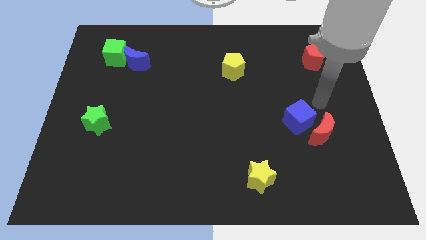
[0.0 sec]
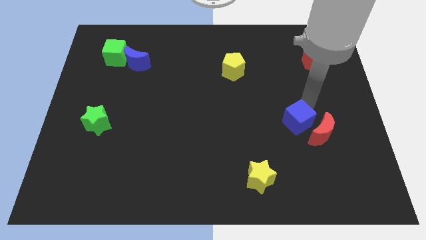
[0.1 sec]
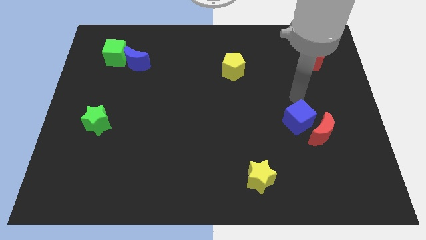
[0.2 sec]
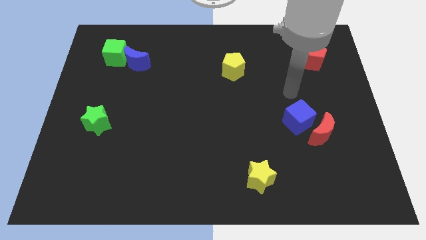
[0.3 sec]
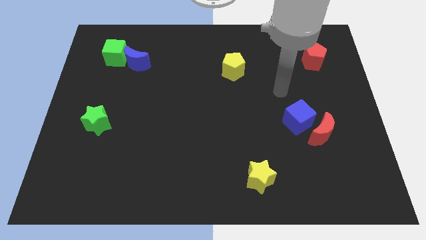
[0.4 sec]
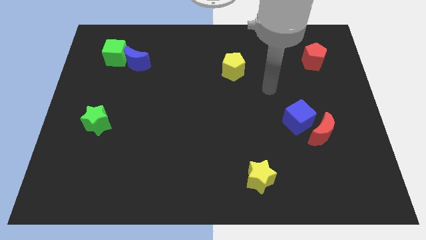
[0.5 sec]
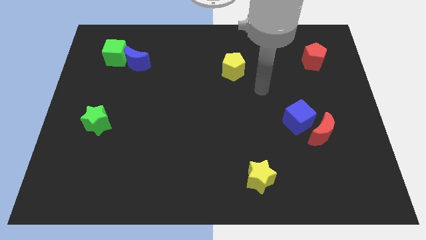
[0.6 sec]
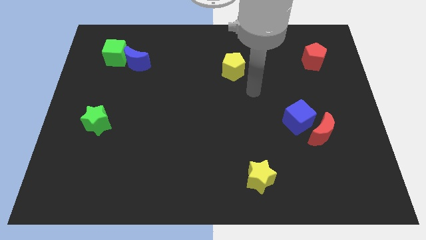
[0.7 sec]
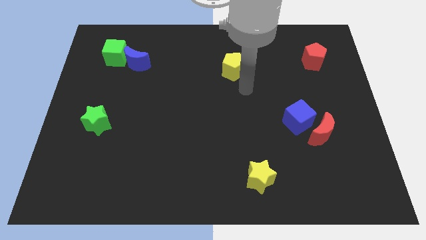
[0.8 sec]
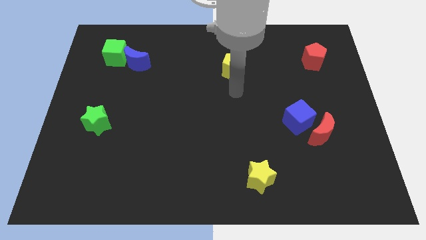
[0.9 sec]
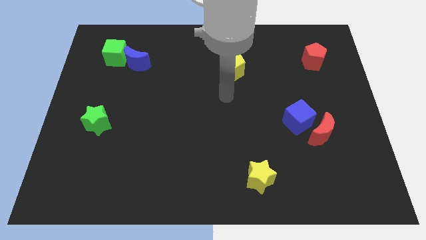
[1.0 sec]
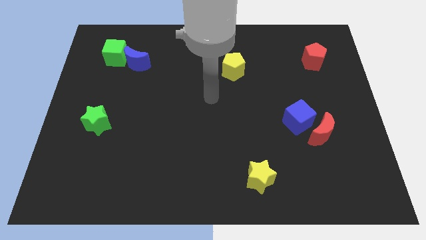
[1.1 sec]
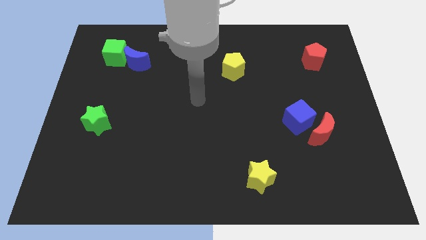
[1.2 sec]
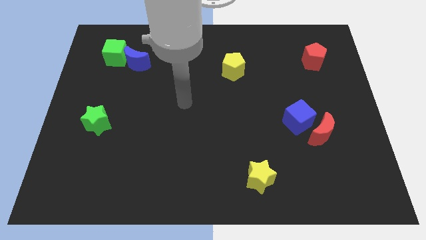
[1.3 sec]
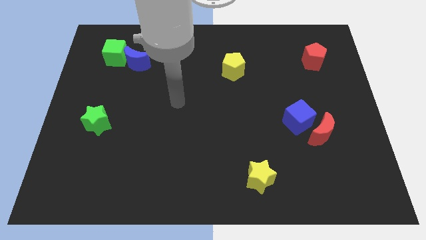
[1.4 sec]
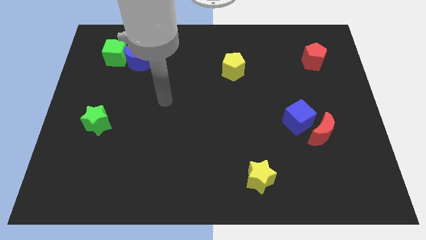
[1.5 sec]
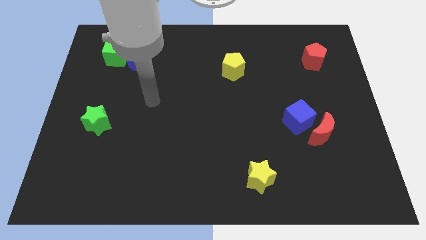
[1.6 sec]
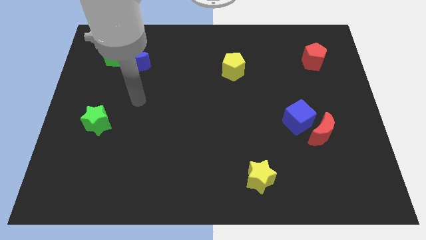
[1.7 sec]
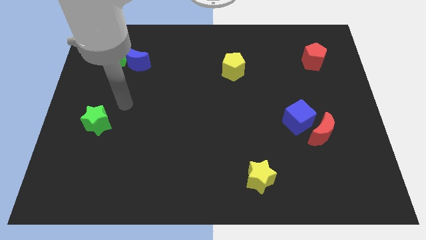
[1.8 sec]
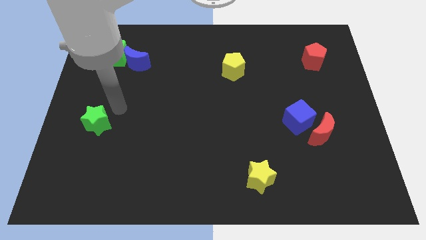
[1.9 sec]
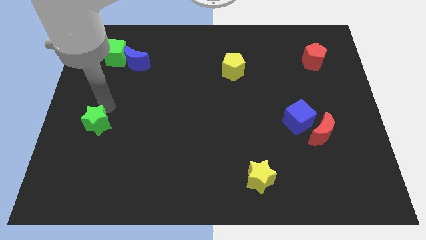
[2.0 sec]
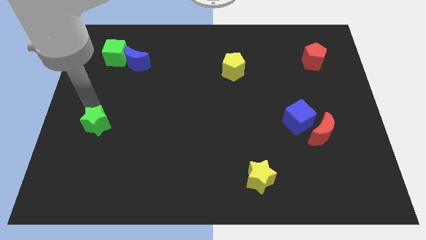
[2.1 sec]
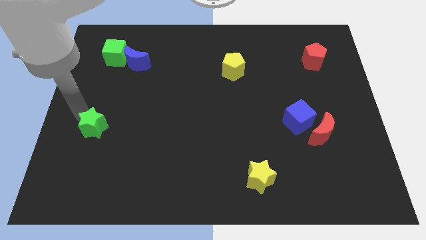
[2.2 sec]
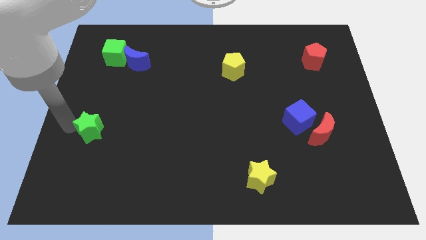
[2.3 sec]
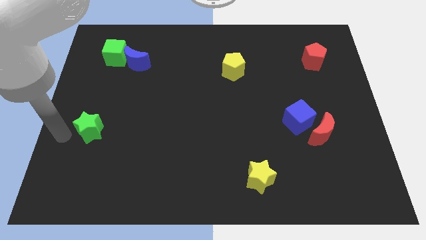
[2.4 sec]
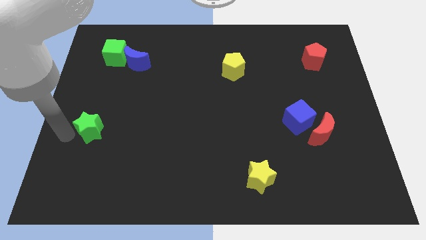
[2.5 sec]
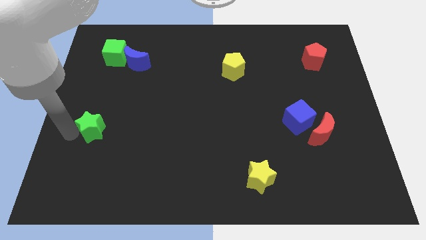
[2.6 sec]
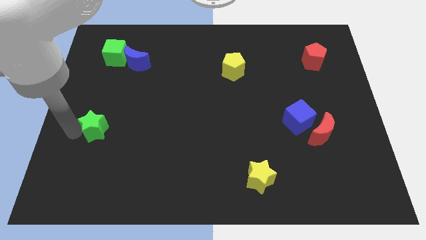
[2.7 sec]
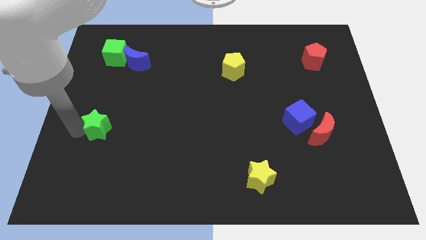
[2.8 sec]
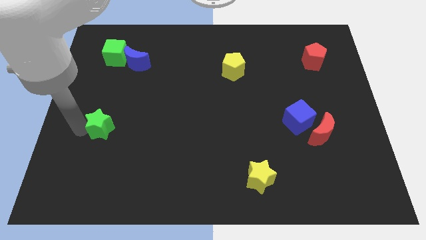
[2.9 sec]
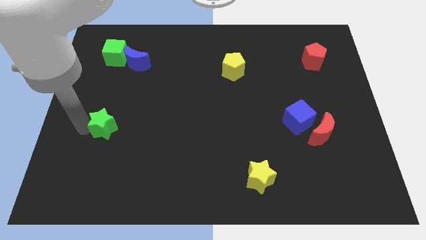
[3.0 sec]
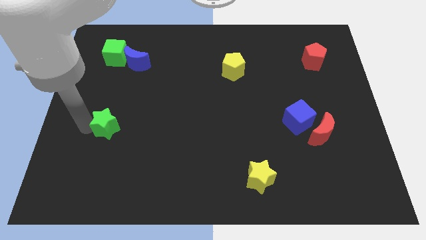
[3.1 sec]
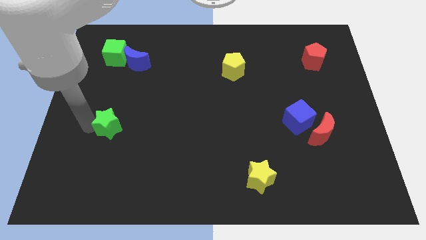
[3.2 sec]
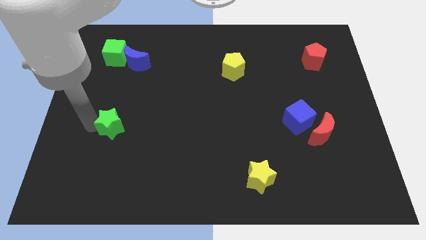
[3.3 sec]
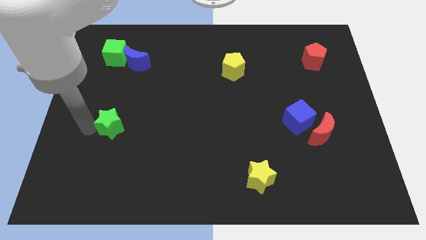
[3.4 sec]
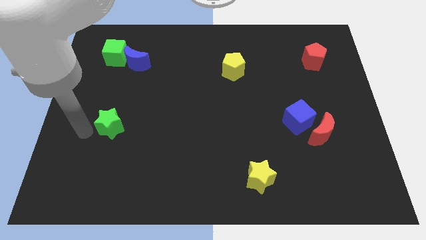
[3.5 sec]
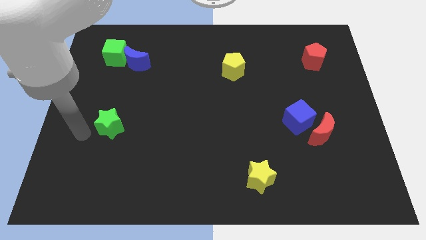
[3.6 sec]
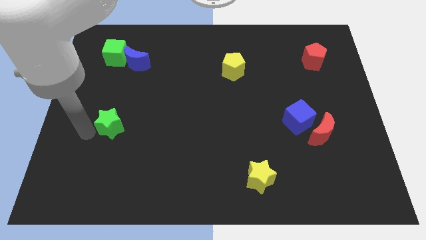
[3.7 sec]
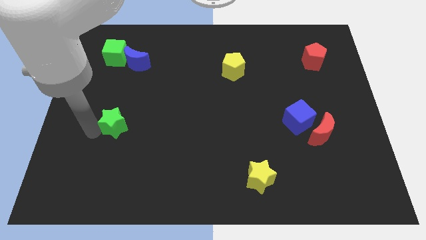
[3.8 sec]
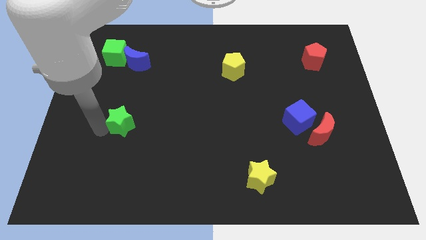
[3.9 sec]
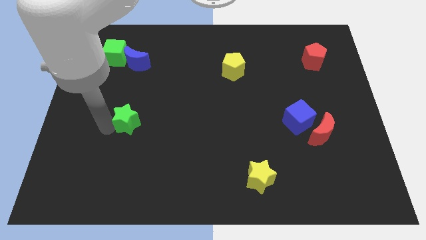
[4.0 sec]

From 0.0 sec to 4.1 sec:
slightly push the green star right

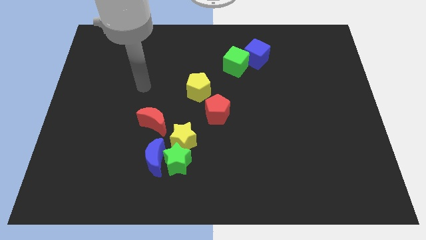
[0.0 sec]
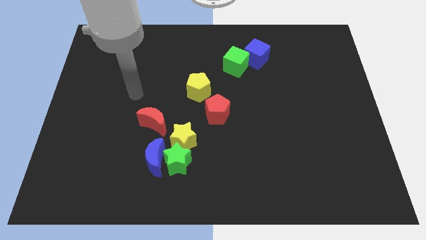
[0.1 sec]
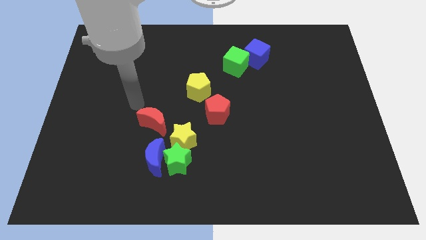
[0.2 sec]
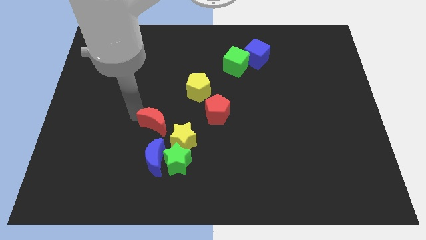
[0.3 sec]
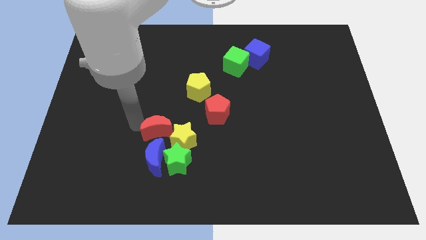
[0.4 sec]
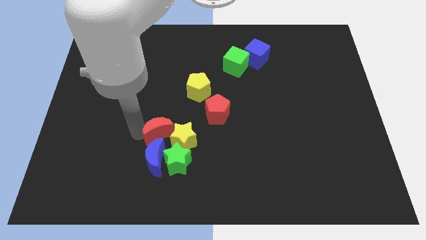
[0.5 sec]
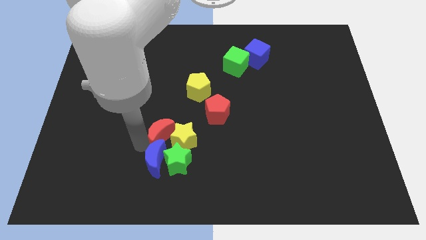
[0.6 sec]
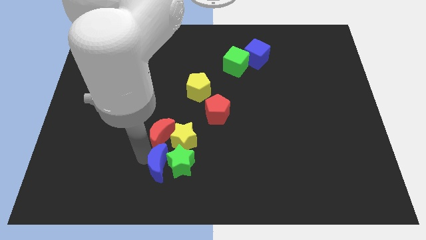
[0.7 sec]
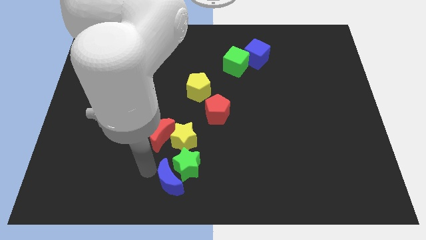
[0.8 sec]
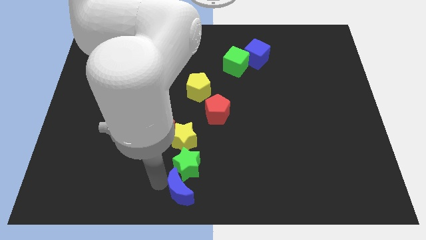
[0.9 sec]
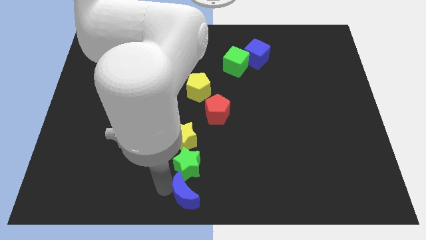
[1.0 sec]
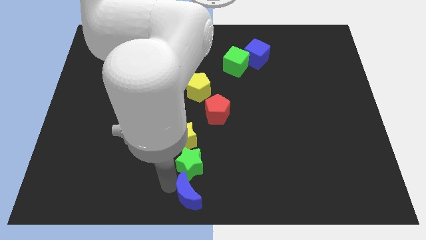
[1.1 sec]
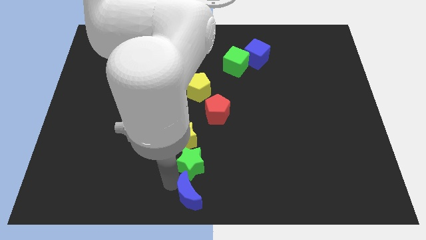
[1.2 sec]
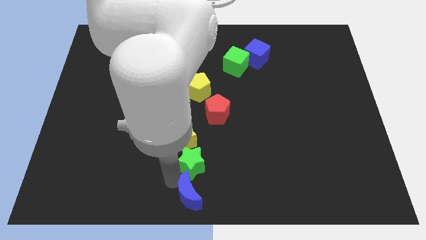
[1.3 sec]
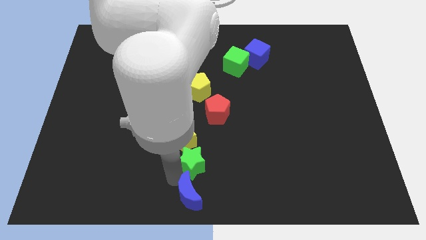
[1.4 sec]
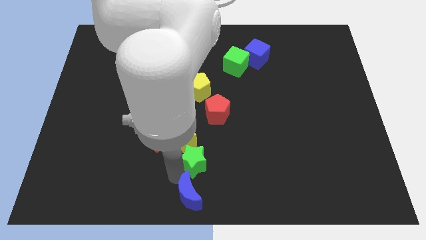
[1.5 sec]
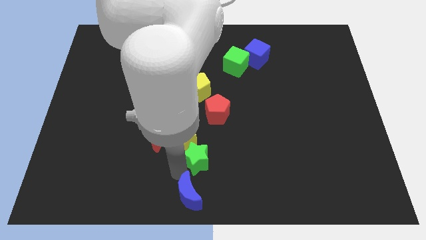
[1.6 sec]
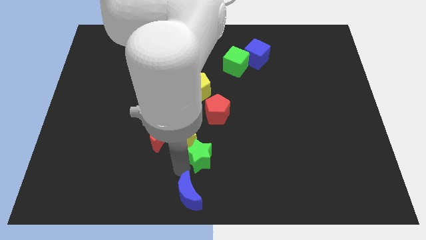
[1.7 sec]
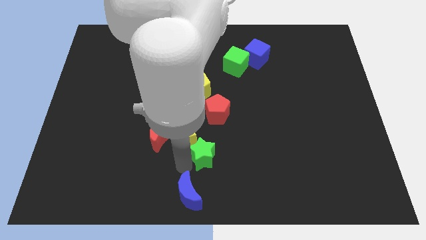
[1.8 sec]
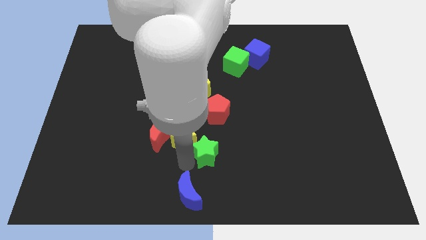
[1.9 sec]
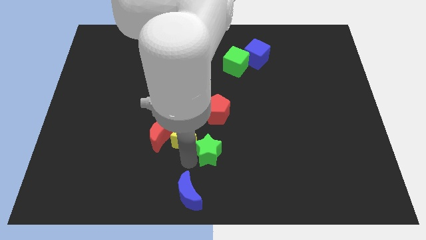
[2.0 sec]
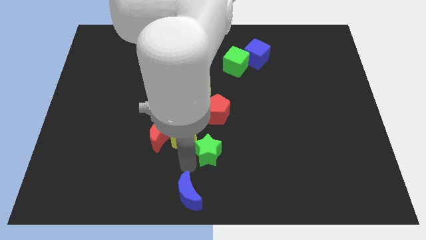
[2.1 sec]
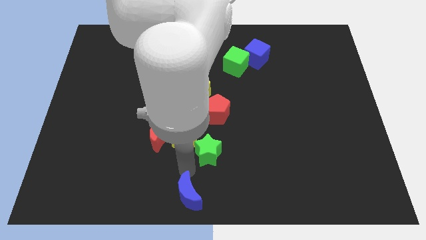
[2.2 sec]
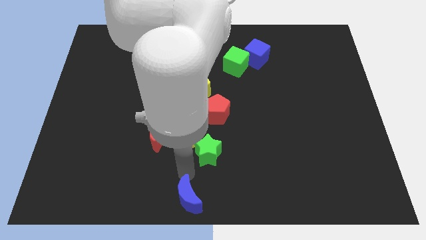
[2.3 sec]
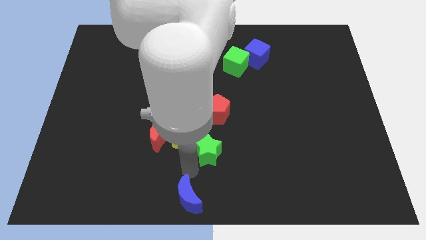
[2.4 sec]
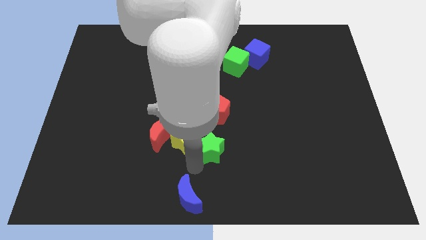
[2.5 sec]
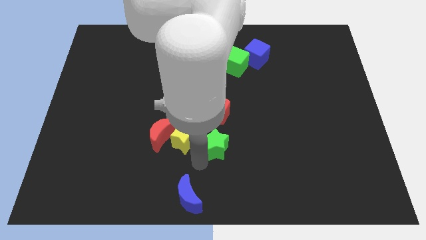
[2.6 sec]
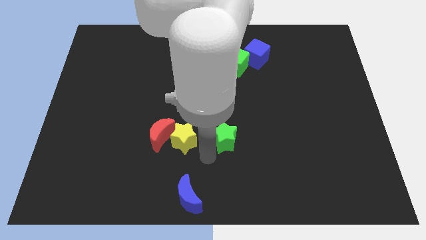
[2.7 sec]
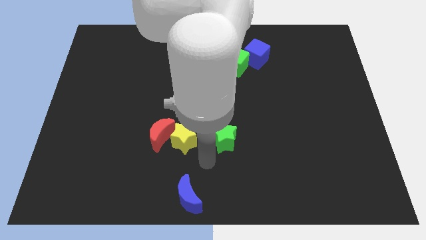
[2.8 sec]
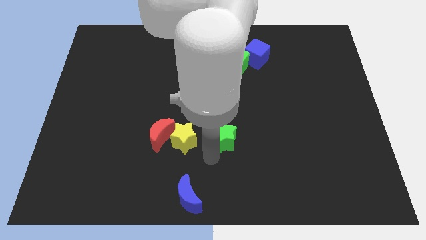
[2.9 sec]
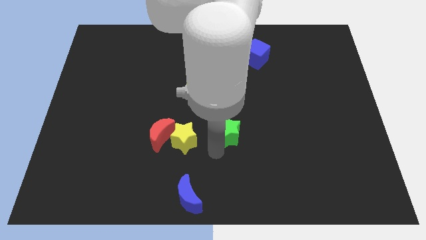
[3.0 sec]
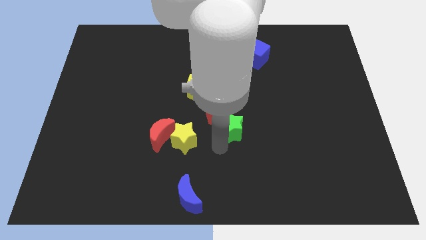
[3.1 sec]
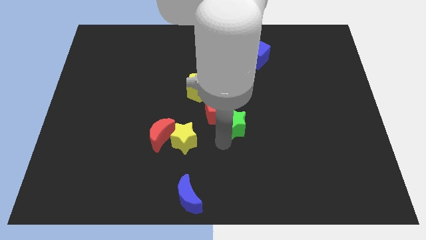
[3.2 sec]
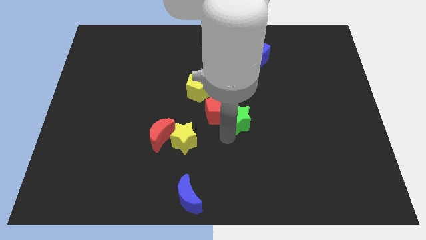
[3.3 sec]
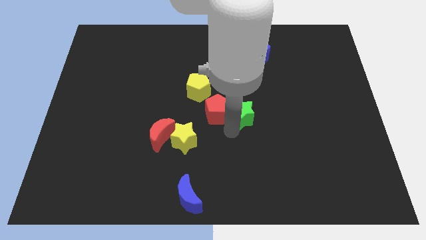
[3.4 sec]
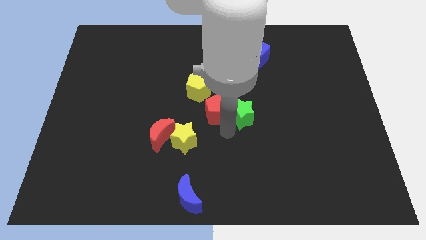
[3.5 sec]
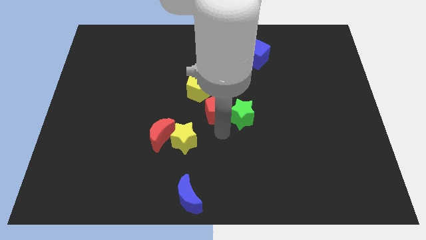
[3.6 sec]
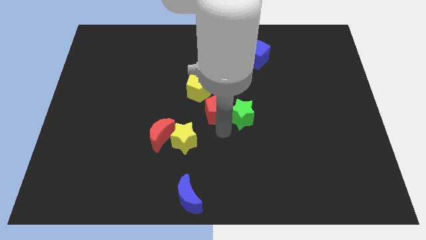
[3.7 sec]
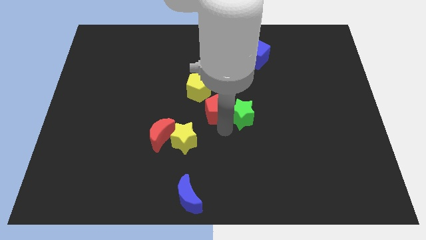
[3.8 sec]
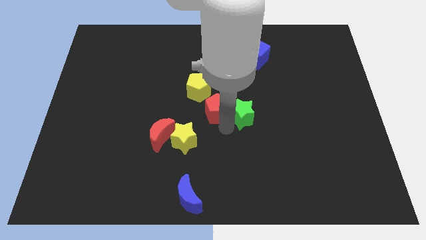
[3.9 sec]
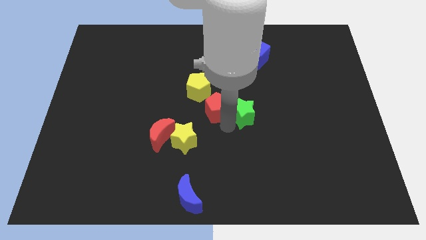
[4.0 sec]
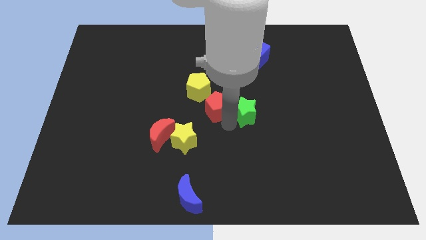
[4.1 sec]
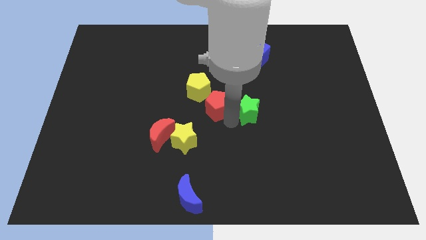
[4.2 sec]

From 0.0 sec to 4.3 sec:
slide the green star upwards and right diagonally
